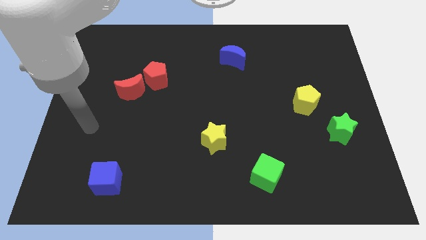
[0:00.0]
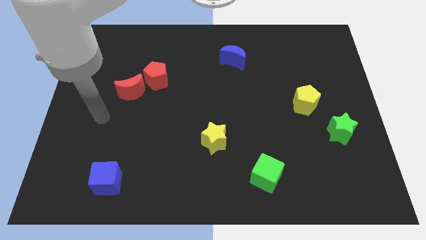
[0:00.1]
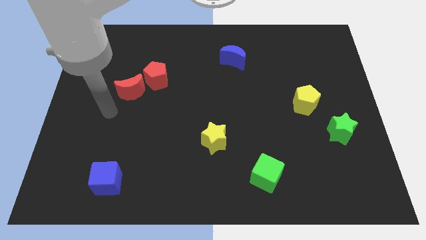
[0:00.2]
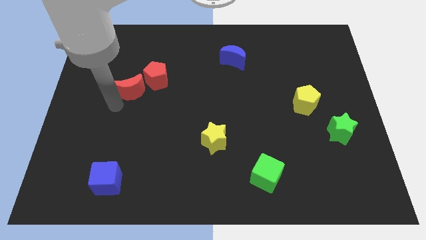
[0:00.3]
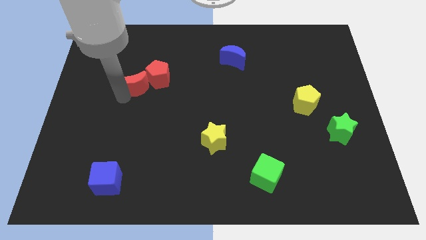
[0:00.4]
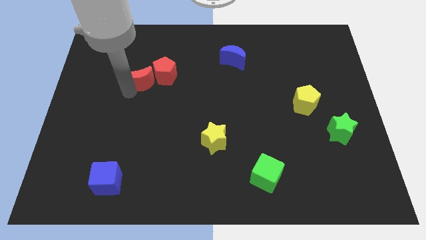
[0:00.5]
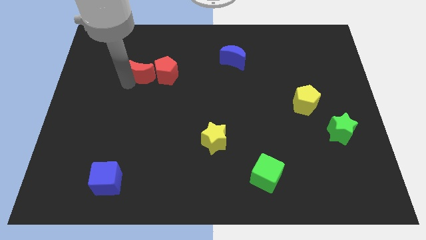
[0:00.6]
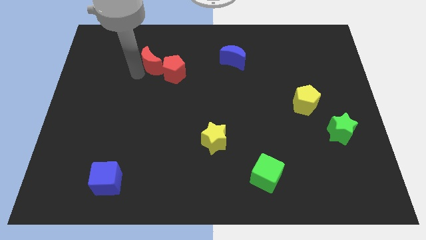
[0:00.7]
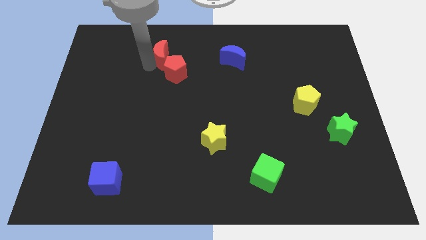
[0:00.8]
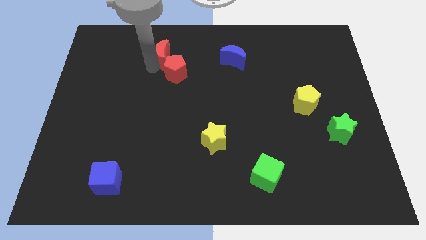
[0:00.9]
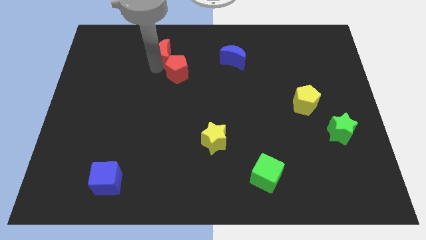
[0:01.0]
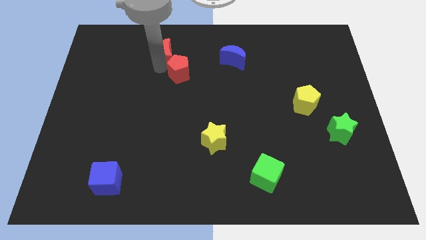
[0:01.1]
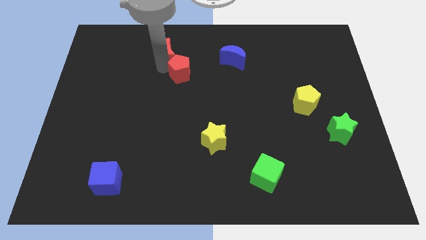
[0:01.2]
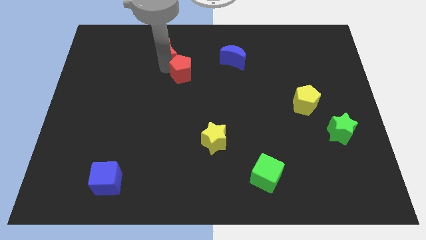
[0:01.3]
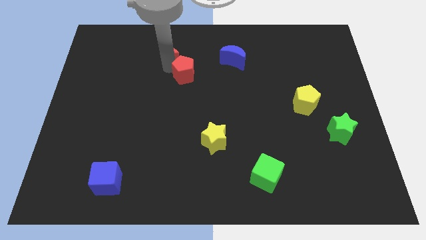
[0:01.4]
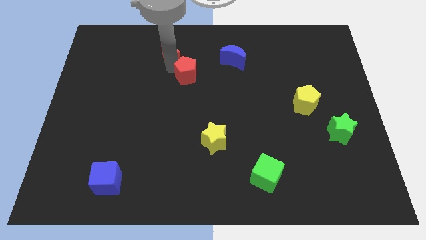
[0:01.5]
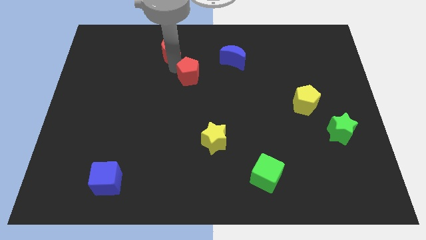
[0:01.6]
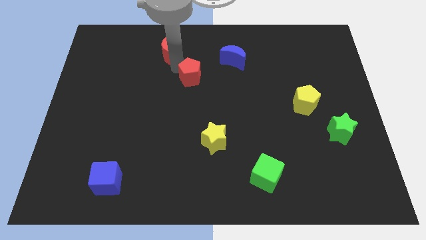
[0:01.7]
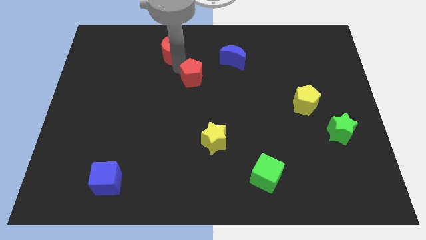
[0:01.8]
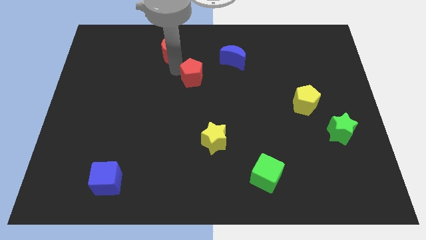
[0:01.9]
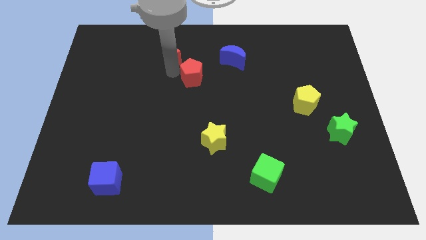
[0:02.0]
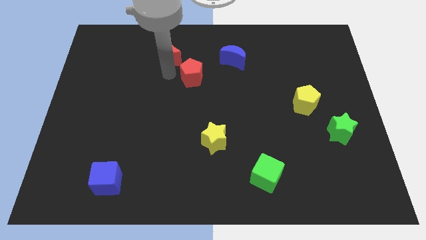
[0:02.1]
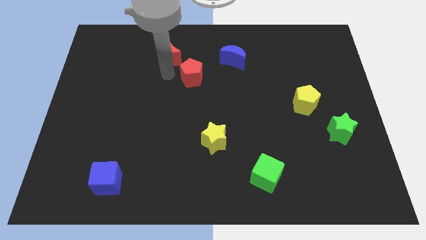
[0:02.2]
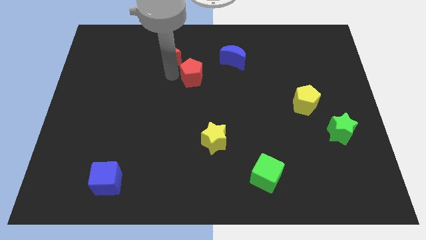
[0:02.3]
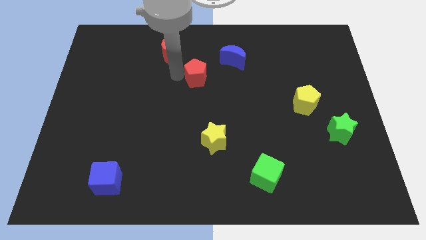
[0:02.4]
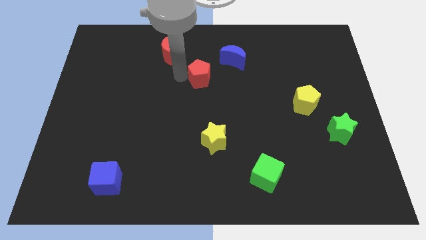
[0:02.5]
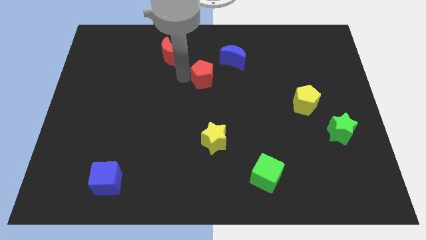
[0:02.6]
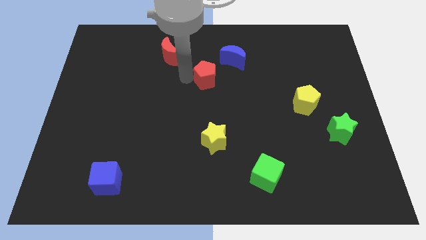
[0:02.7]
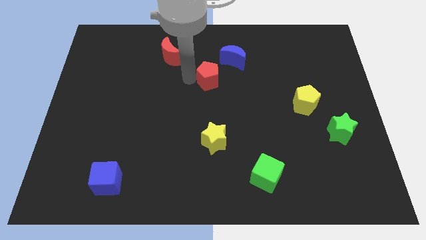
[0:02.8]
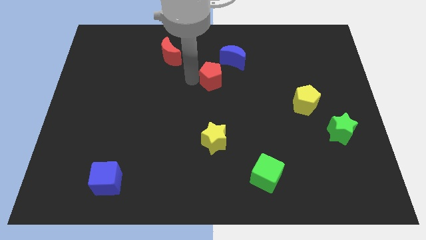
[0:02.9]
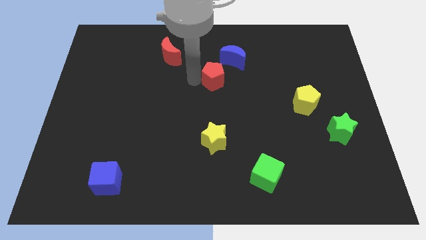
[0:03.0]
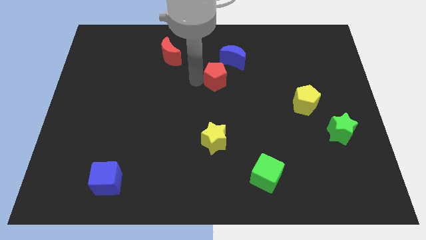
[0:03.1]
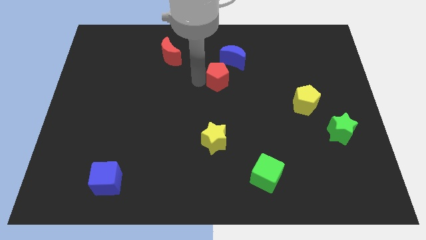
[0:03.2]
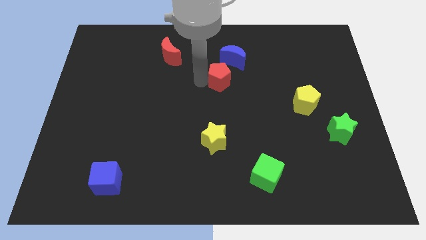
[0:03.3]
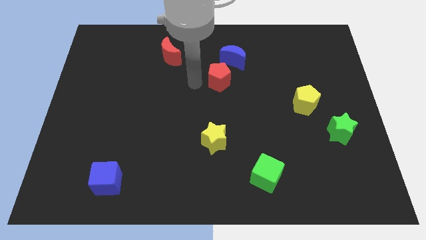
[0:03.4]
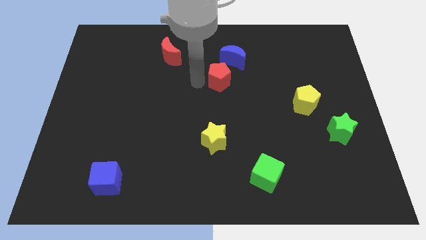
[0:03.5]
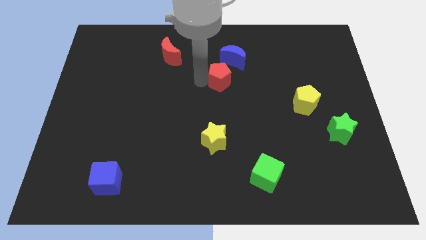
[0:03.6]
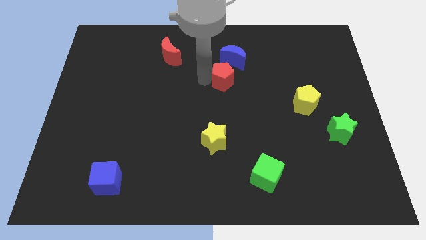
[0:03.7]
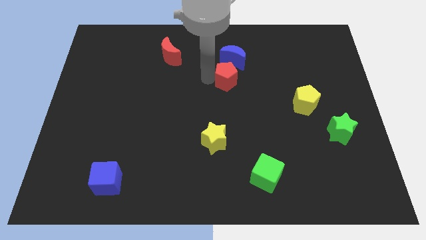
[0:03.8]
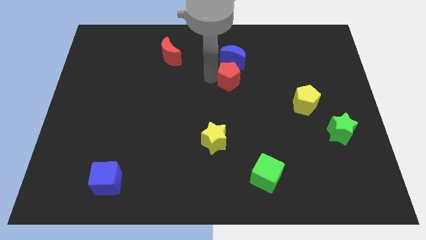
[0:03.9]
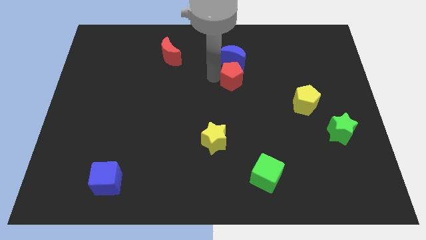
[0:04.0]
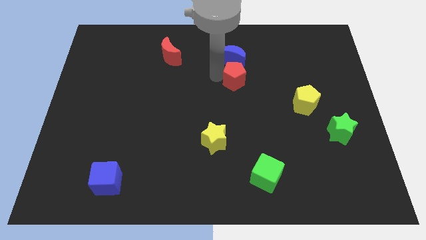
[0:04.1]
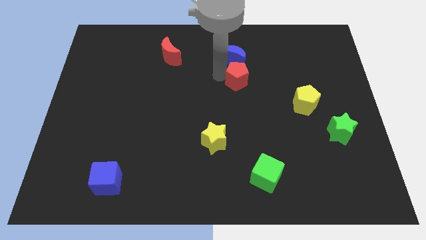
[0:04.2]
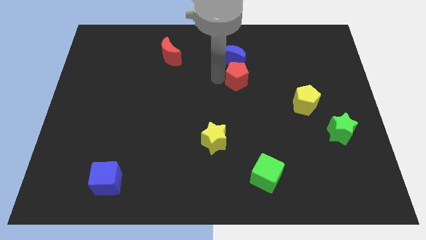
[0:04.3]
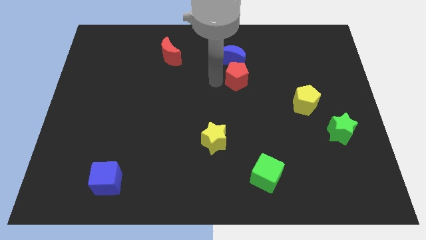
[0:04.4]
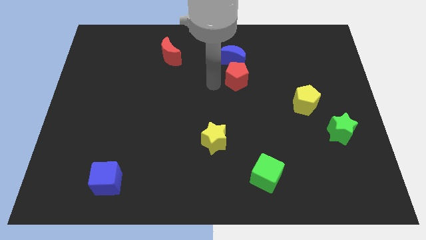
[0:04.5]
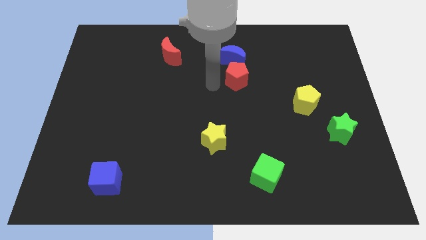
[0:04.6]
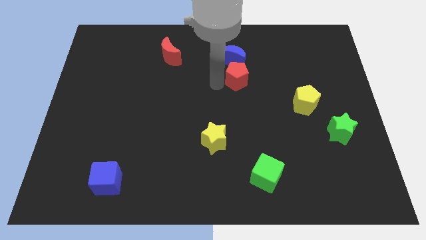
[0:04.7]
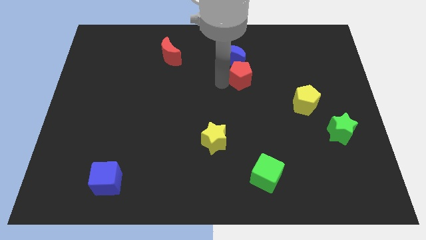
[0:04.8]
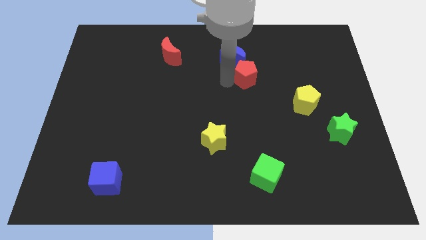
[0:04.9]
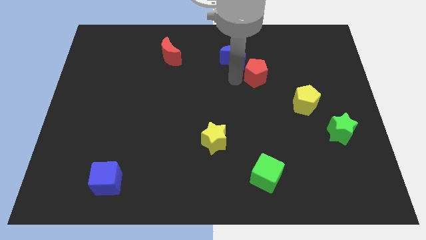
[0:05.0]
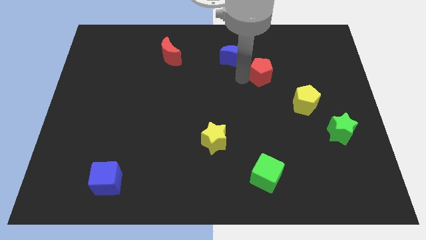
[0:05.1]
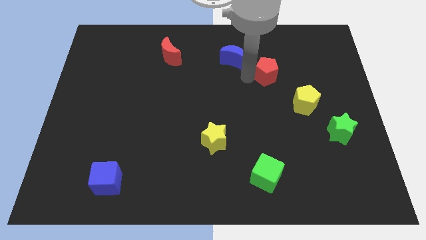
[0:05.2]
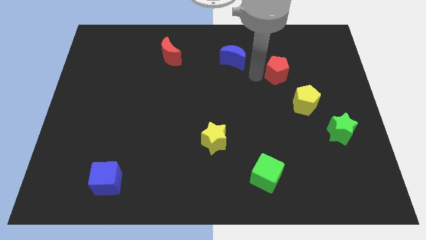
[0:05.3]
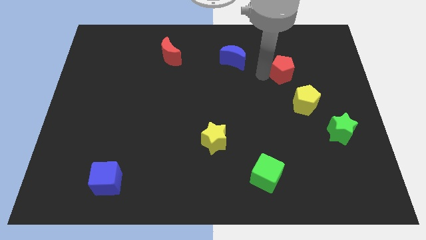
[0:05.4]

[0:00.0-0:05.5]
slide the red pentagon to the top of the yellow pentagon

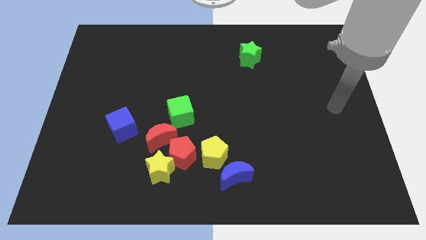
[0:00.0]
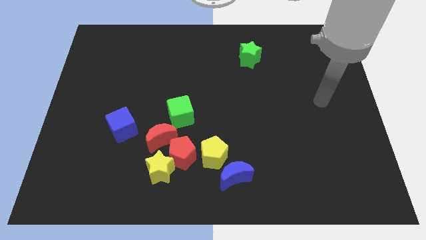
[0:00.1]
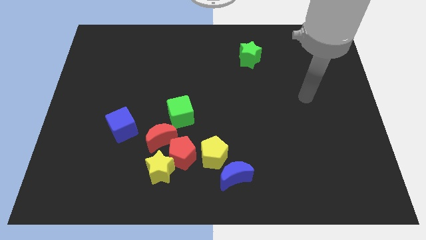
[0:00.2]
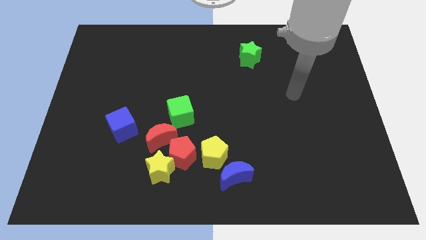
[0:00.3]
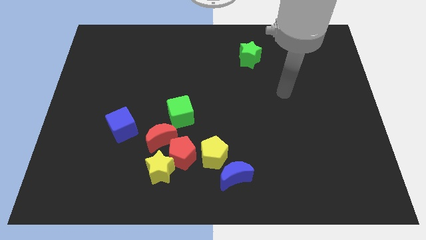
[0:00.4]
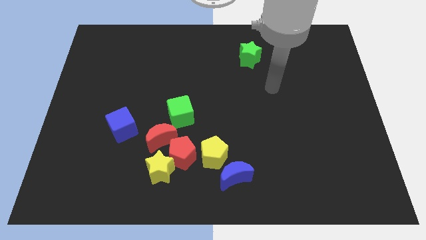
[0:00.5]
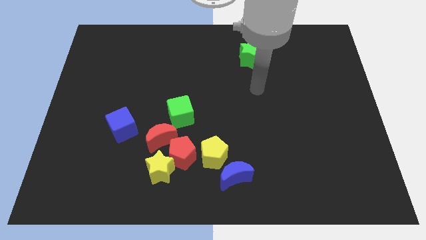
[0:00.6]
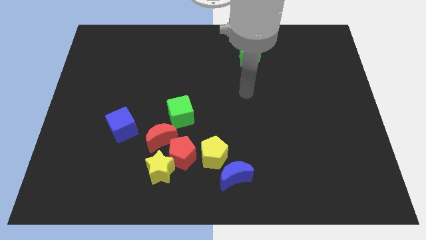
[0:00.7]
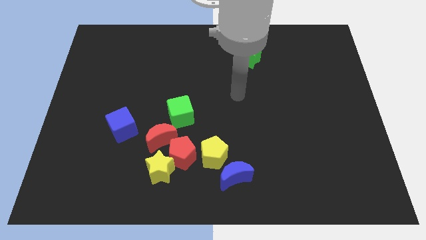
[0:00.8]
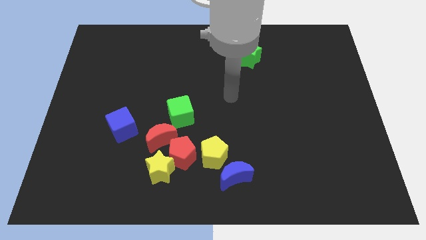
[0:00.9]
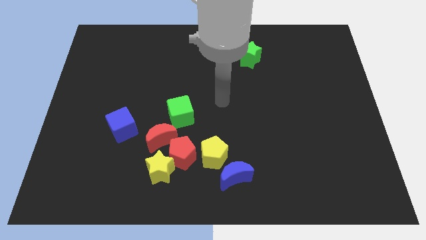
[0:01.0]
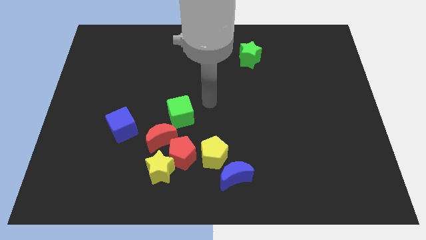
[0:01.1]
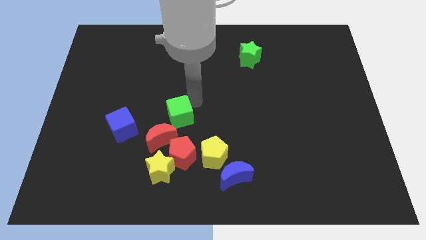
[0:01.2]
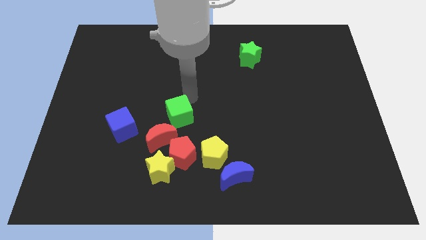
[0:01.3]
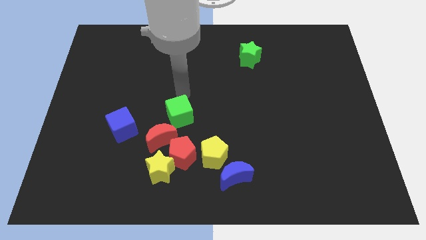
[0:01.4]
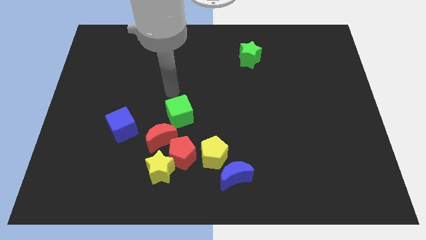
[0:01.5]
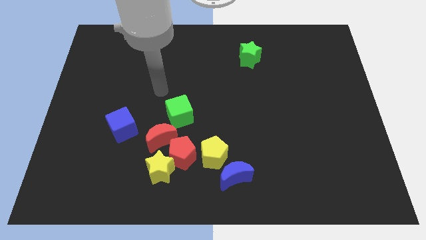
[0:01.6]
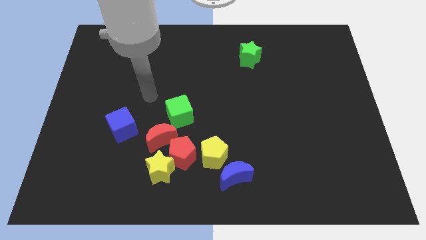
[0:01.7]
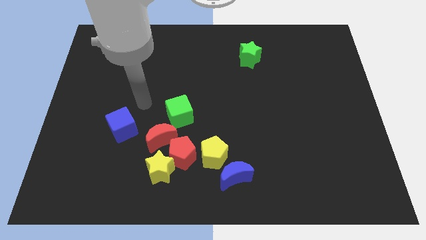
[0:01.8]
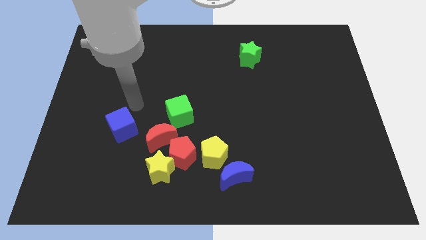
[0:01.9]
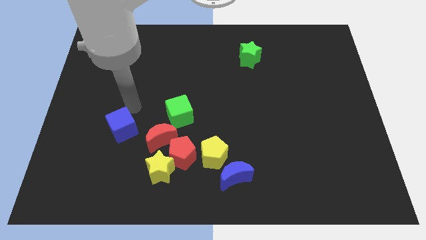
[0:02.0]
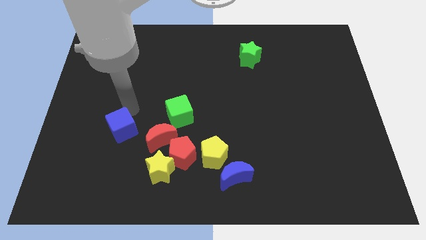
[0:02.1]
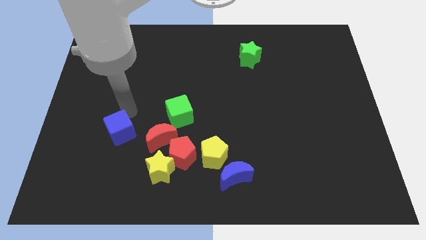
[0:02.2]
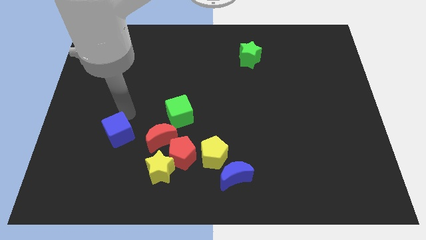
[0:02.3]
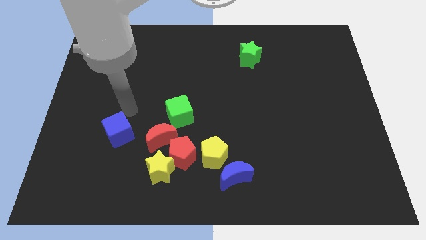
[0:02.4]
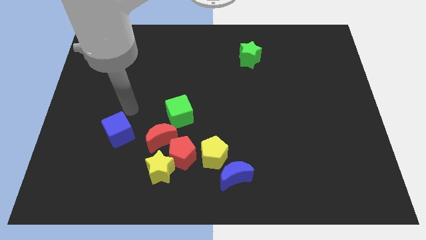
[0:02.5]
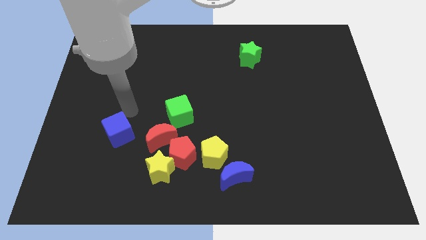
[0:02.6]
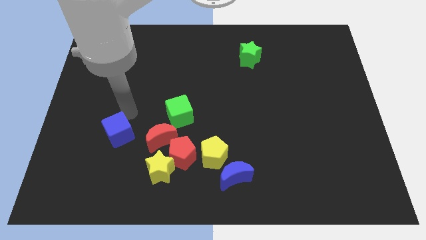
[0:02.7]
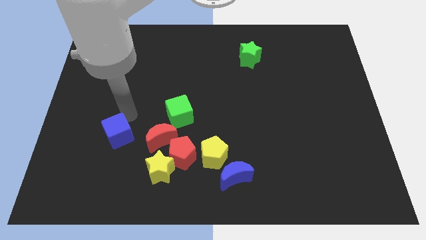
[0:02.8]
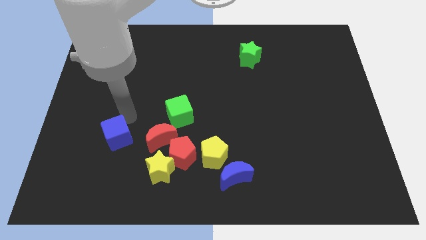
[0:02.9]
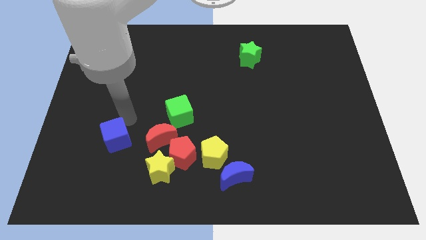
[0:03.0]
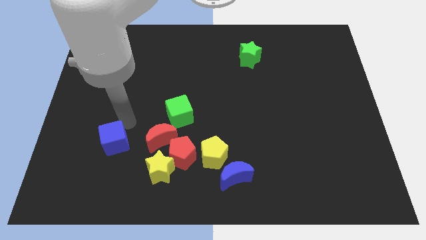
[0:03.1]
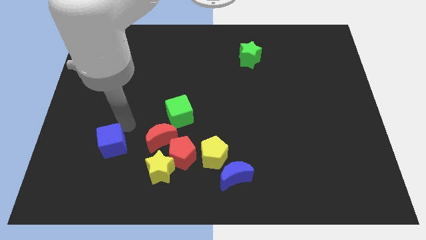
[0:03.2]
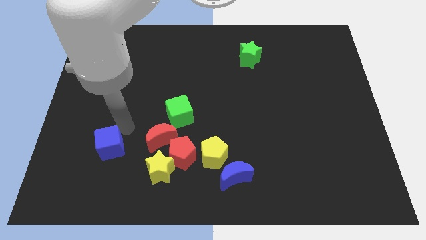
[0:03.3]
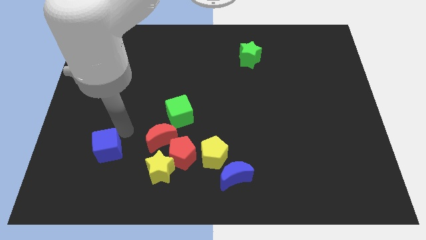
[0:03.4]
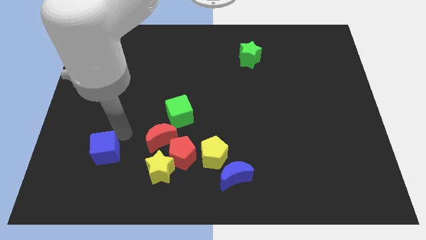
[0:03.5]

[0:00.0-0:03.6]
move the blue cube just left of the yellow star
